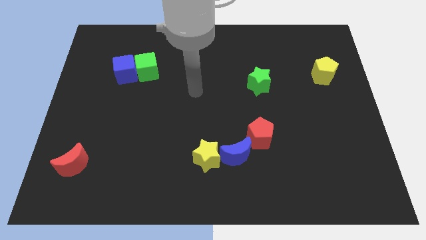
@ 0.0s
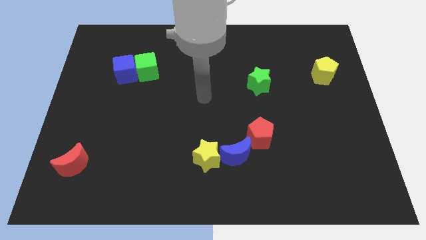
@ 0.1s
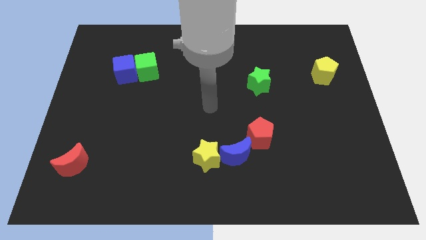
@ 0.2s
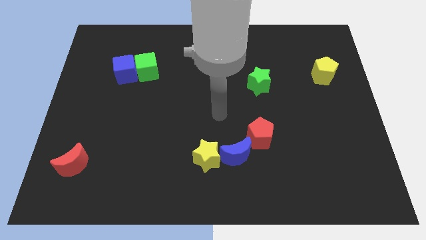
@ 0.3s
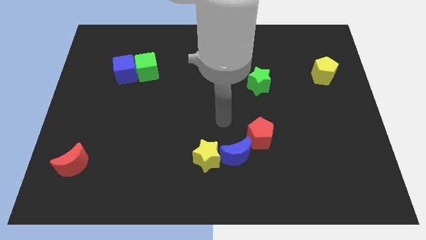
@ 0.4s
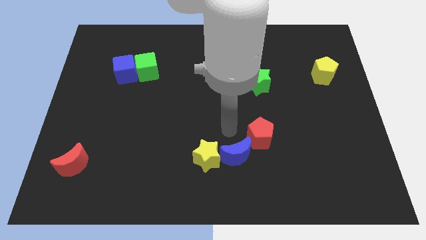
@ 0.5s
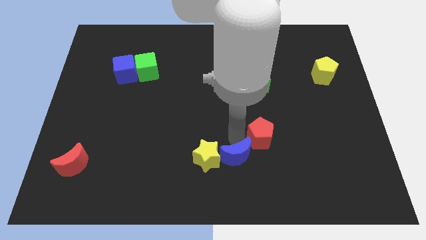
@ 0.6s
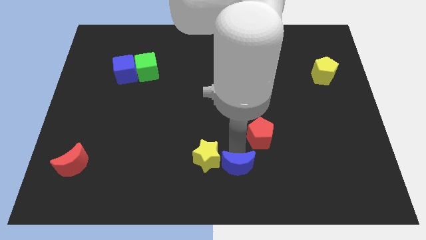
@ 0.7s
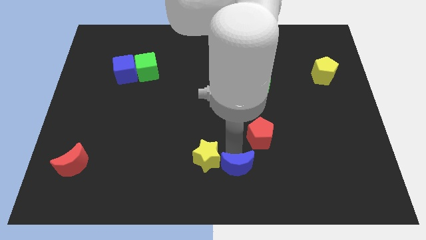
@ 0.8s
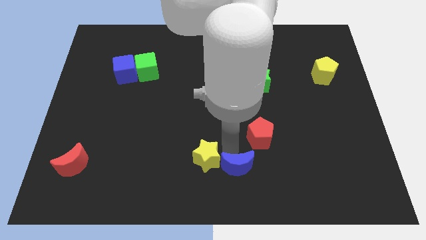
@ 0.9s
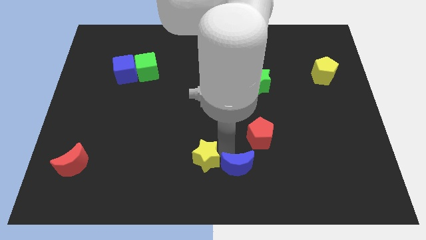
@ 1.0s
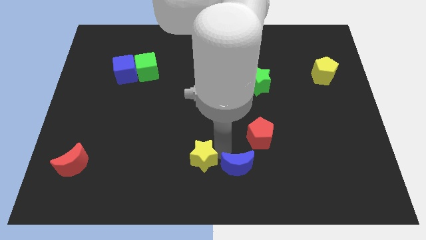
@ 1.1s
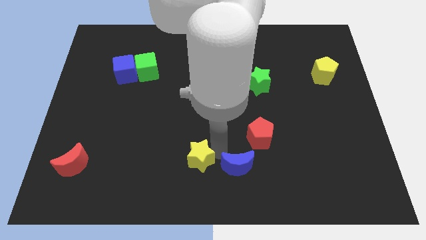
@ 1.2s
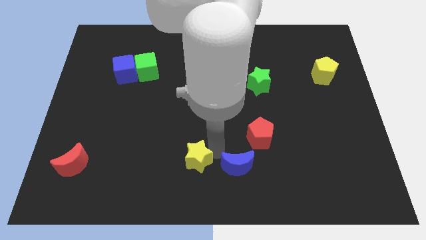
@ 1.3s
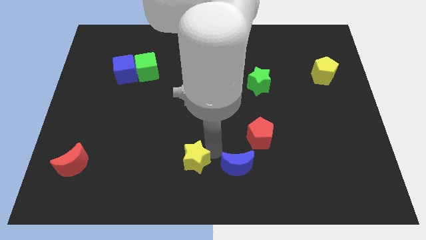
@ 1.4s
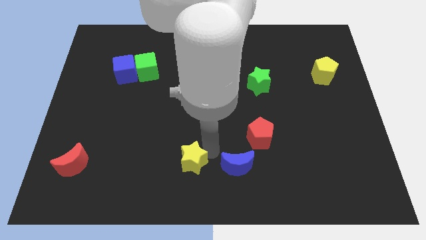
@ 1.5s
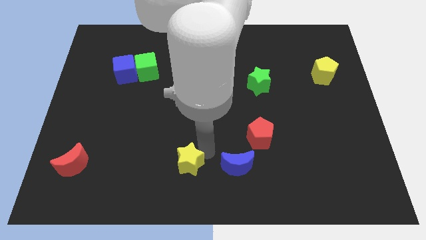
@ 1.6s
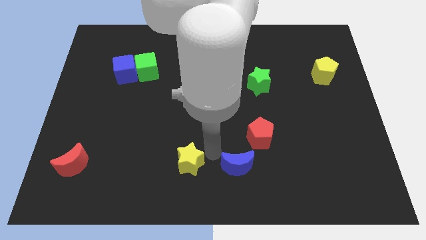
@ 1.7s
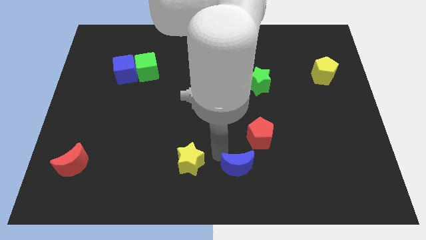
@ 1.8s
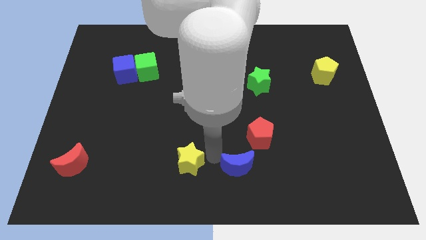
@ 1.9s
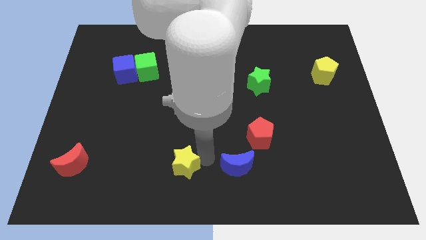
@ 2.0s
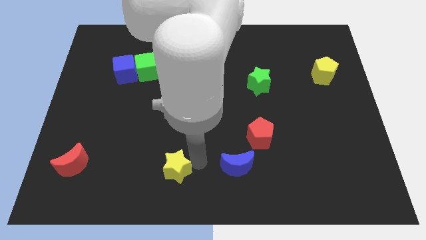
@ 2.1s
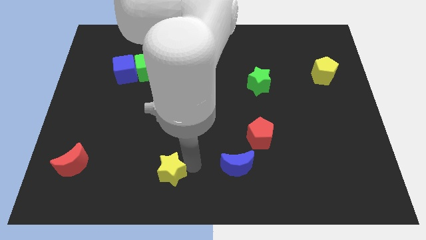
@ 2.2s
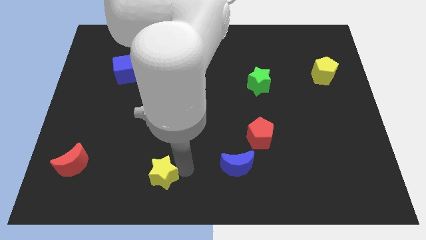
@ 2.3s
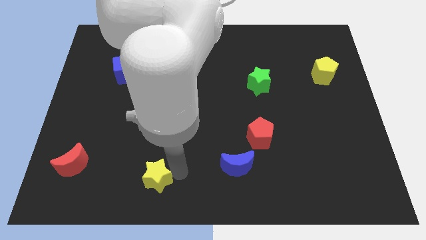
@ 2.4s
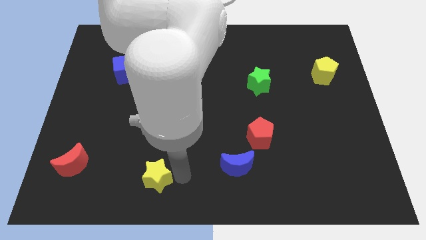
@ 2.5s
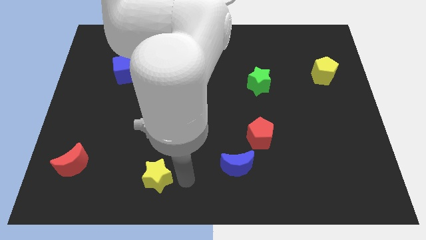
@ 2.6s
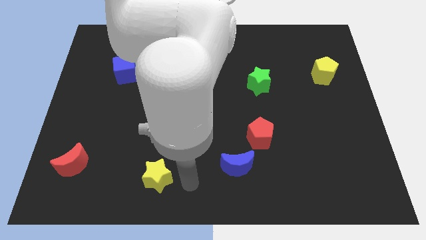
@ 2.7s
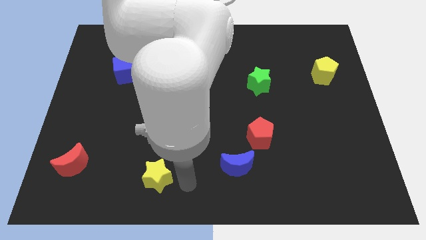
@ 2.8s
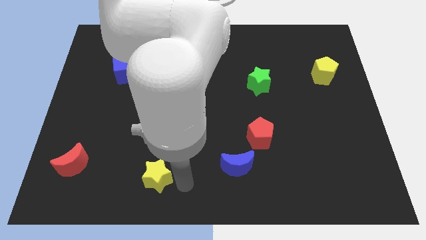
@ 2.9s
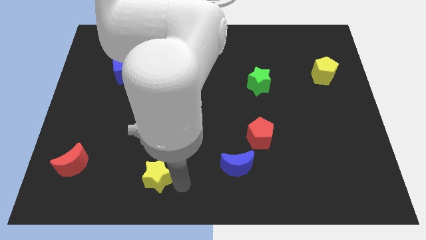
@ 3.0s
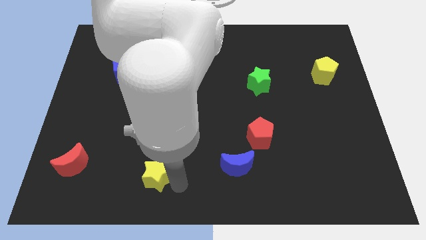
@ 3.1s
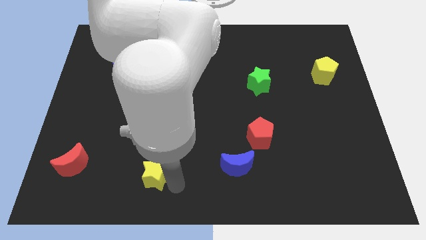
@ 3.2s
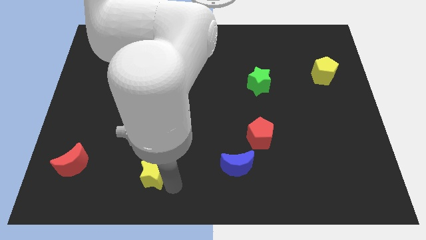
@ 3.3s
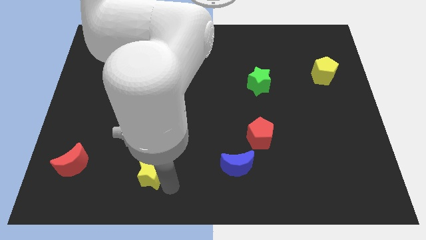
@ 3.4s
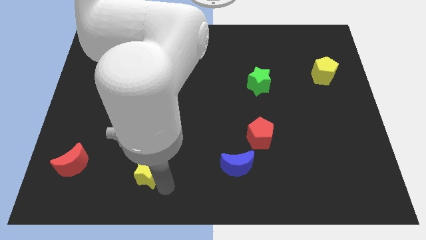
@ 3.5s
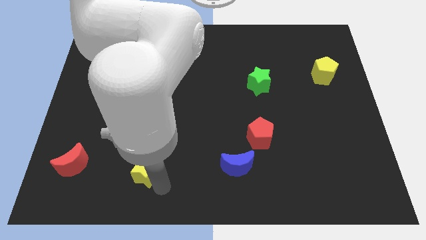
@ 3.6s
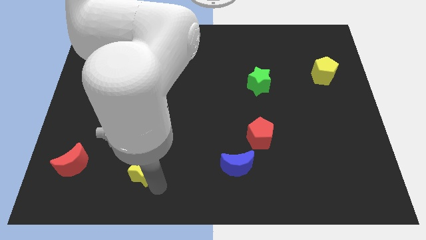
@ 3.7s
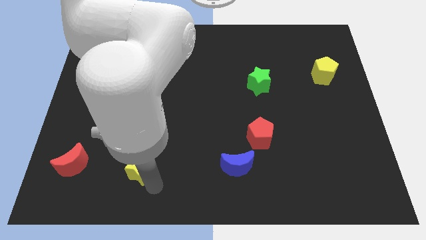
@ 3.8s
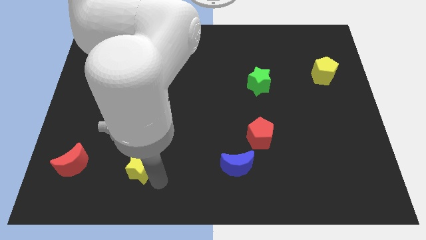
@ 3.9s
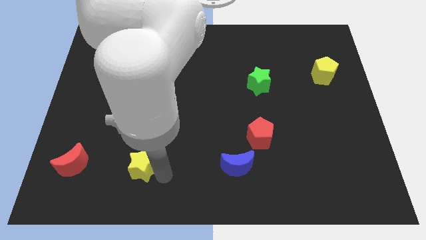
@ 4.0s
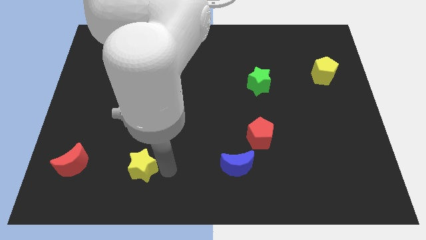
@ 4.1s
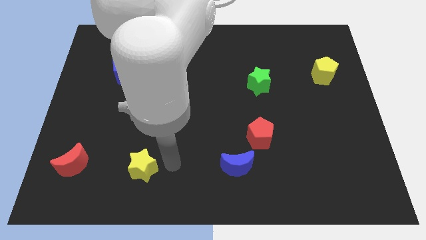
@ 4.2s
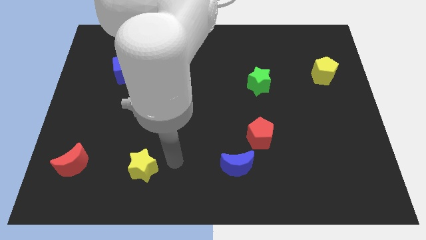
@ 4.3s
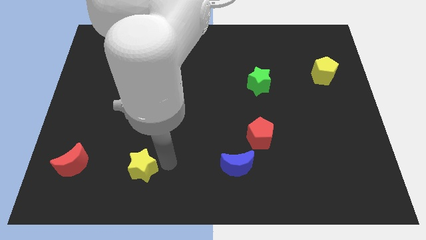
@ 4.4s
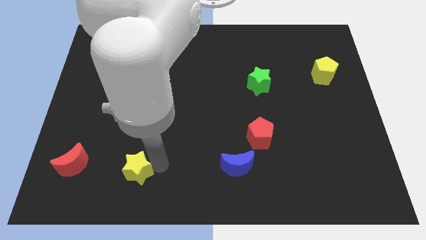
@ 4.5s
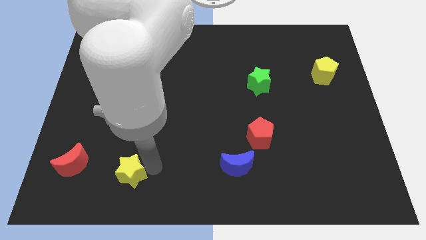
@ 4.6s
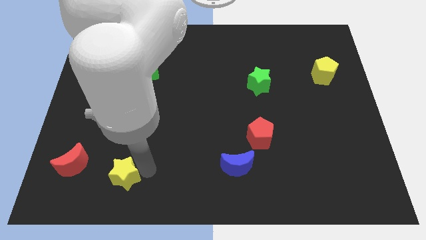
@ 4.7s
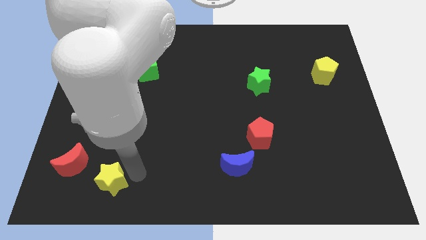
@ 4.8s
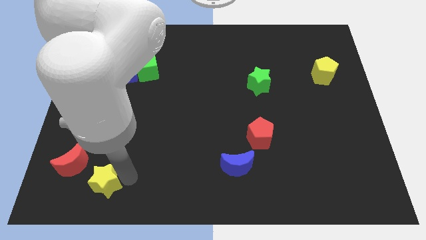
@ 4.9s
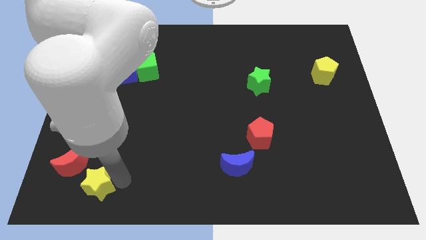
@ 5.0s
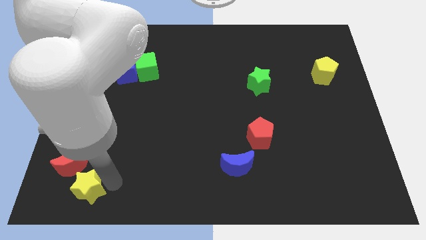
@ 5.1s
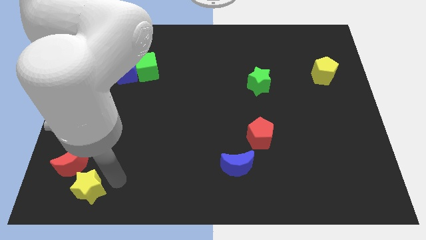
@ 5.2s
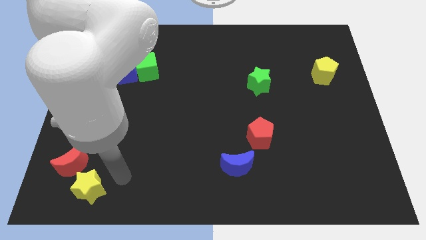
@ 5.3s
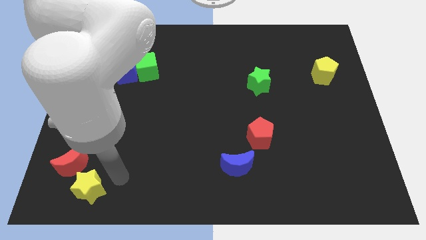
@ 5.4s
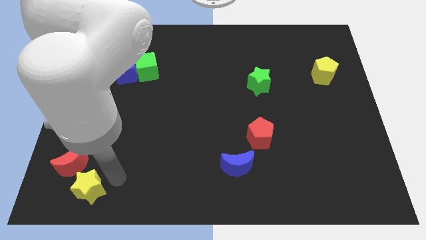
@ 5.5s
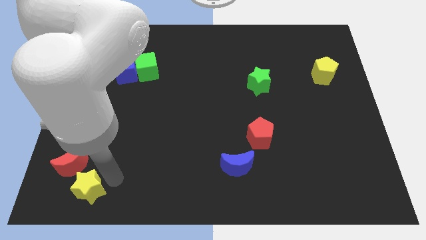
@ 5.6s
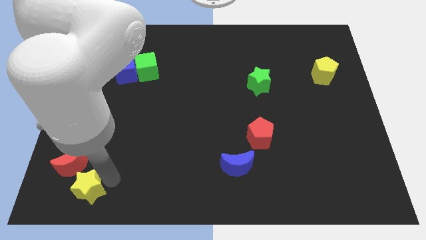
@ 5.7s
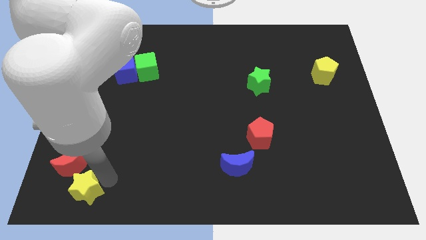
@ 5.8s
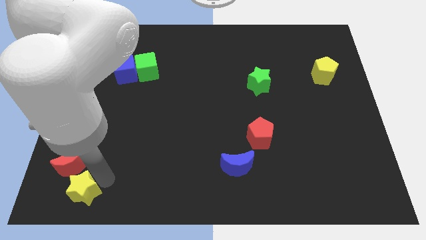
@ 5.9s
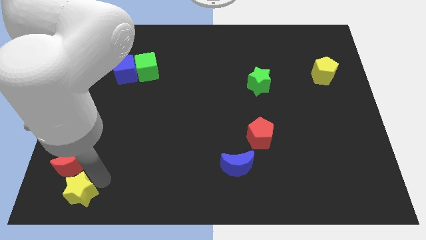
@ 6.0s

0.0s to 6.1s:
slide the yellow star to the bottom left

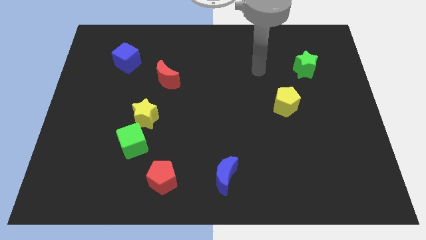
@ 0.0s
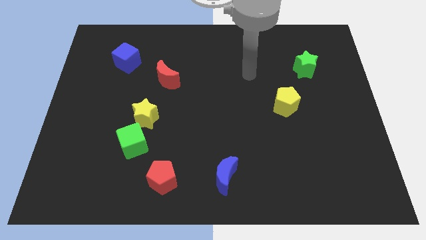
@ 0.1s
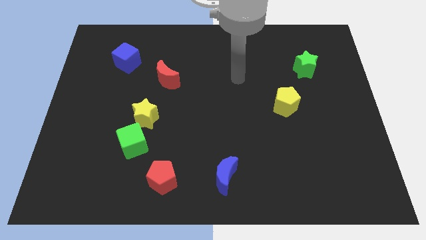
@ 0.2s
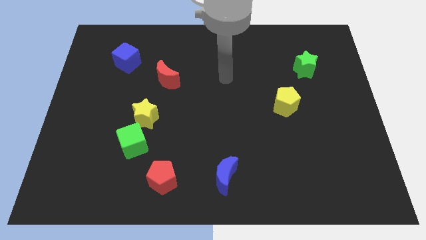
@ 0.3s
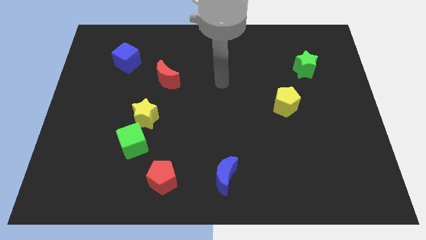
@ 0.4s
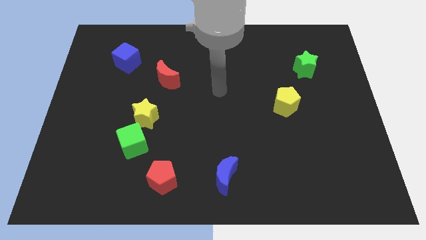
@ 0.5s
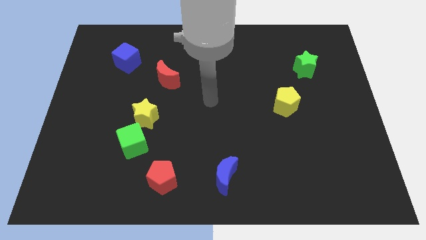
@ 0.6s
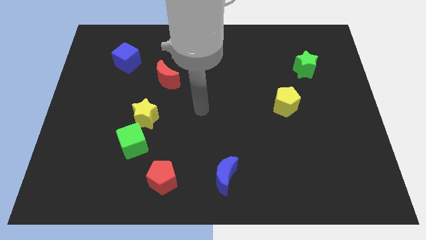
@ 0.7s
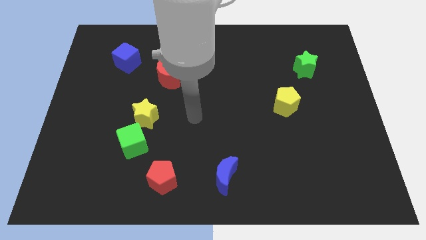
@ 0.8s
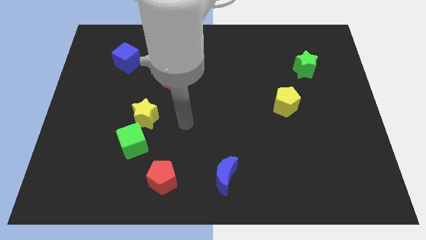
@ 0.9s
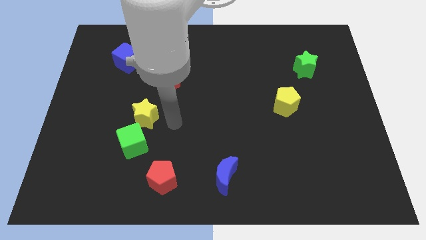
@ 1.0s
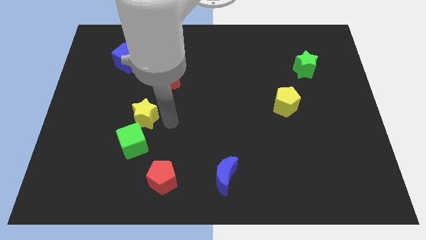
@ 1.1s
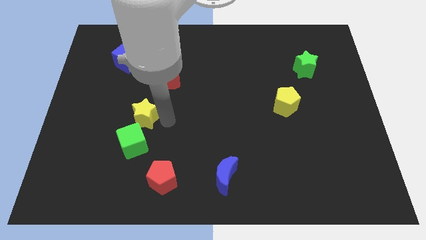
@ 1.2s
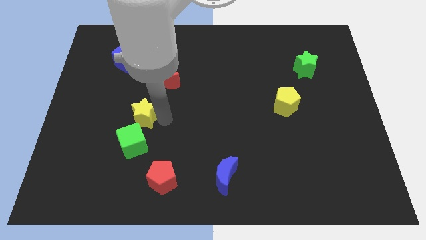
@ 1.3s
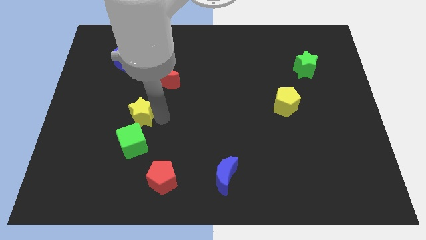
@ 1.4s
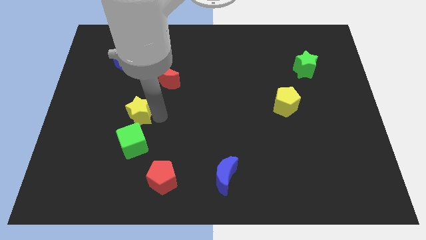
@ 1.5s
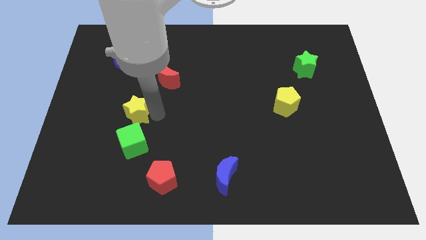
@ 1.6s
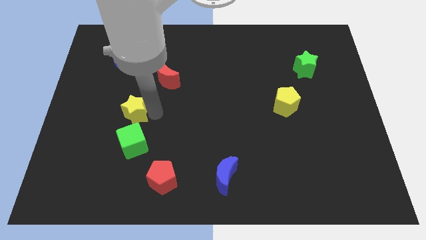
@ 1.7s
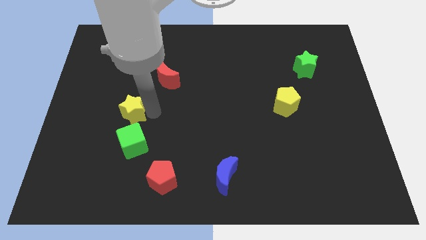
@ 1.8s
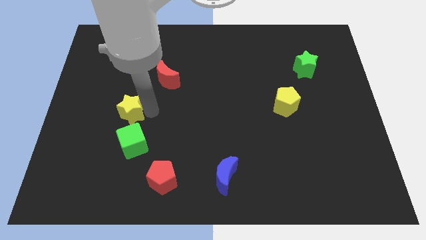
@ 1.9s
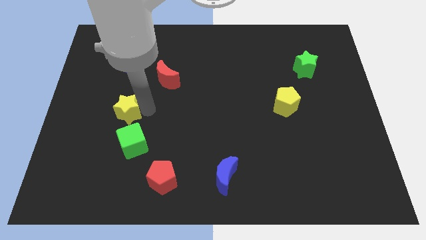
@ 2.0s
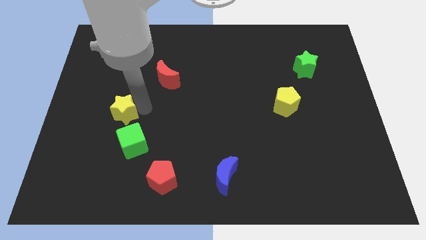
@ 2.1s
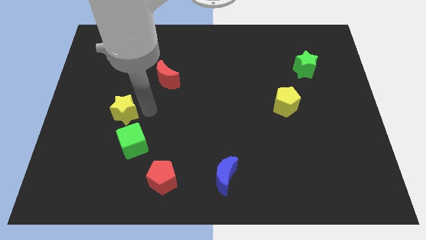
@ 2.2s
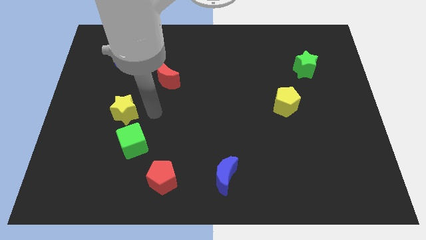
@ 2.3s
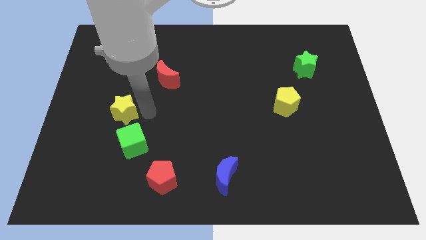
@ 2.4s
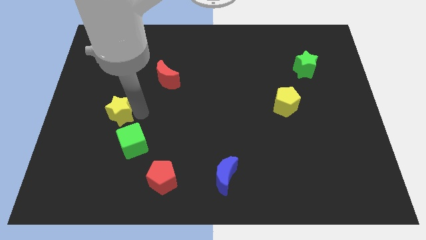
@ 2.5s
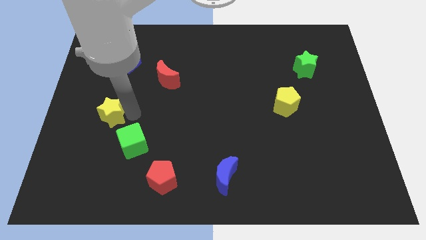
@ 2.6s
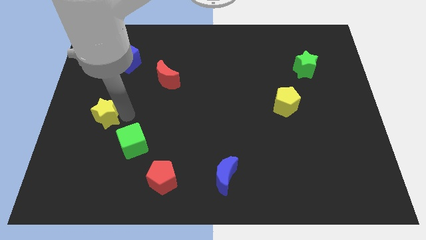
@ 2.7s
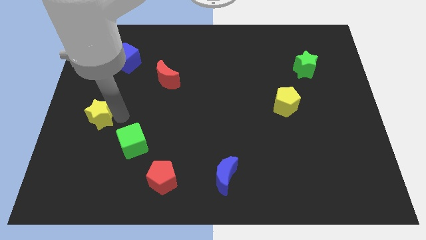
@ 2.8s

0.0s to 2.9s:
push the yellow star to the center left
